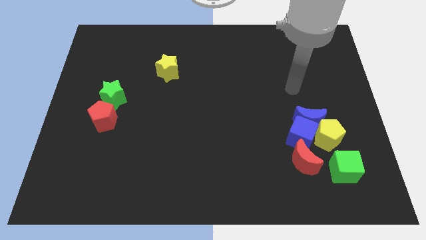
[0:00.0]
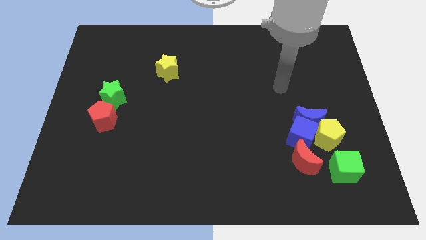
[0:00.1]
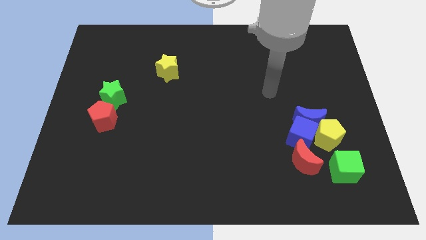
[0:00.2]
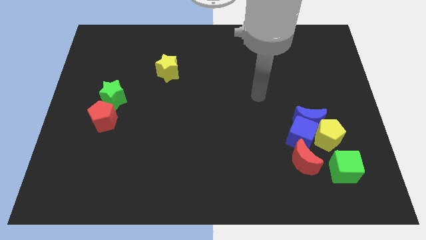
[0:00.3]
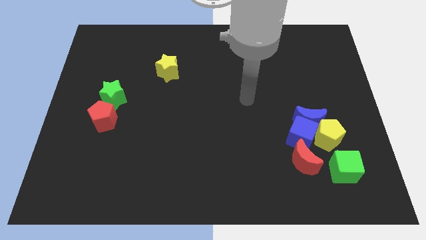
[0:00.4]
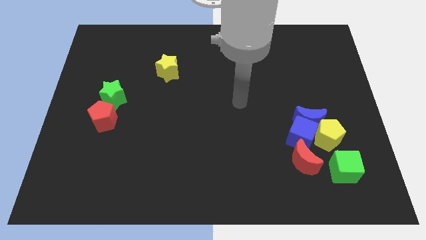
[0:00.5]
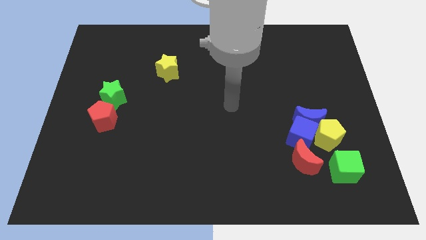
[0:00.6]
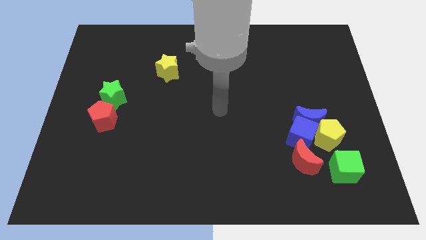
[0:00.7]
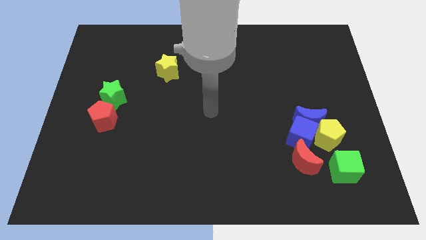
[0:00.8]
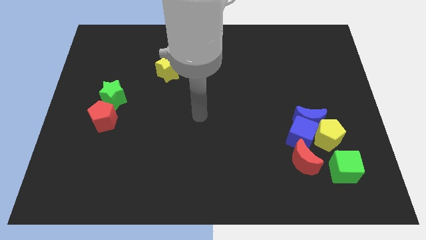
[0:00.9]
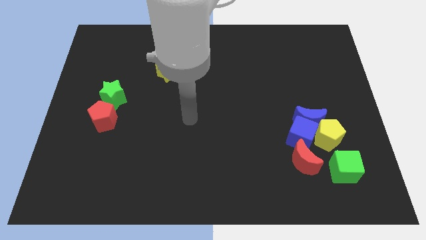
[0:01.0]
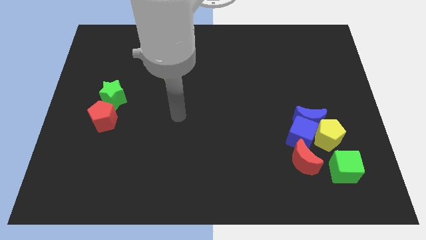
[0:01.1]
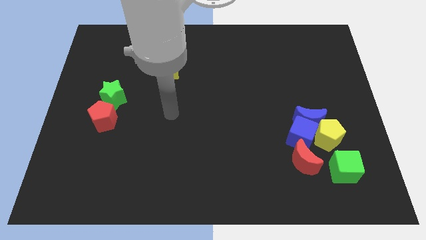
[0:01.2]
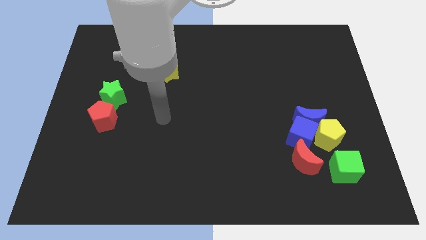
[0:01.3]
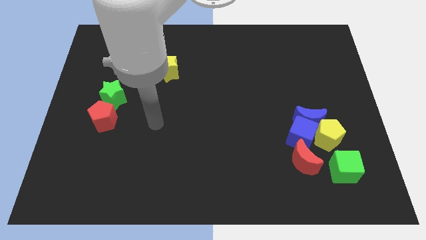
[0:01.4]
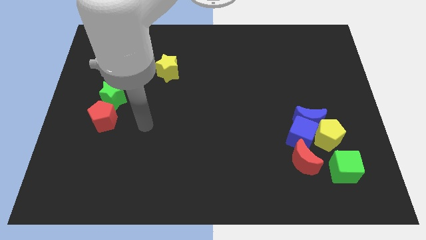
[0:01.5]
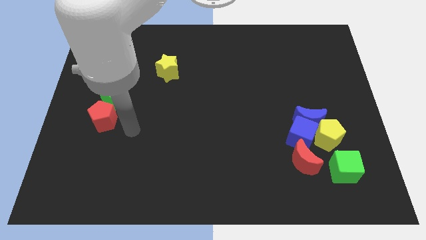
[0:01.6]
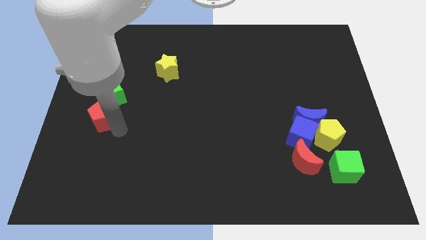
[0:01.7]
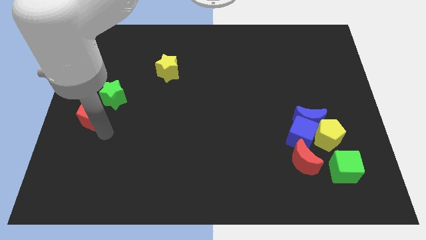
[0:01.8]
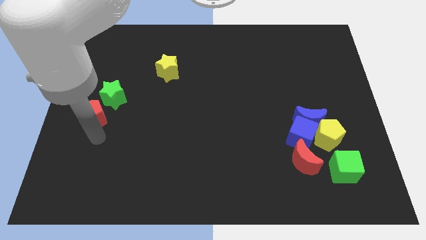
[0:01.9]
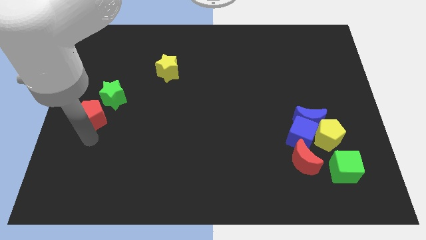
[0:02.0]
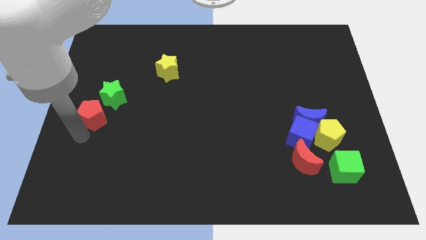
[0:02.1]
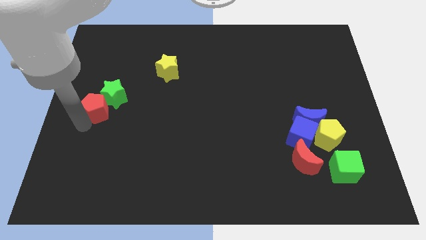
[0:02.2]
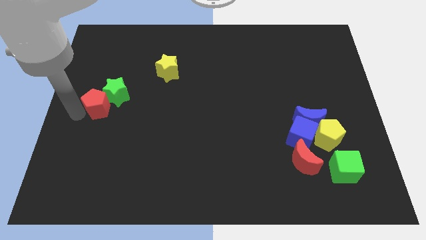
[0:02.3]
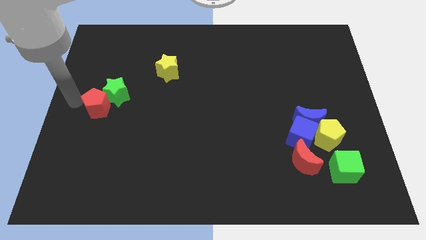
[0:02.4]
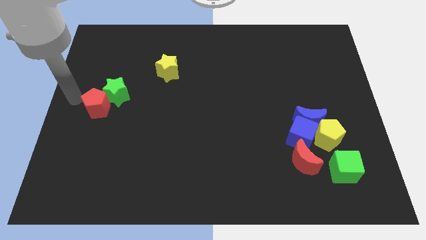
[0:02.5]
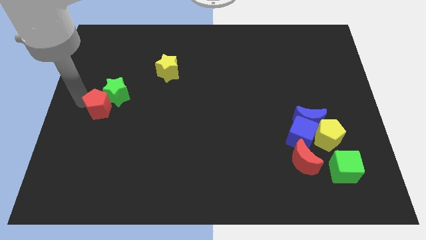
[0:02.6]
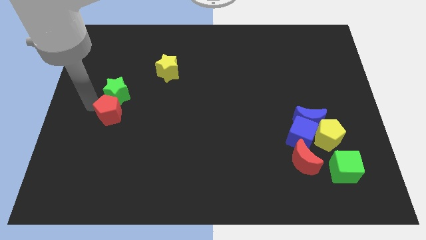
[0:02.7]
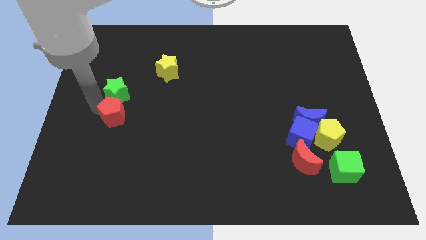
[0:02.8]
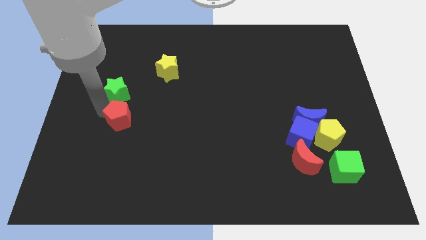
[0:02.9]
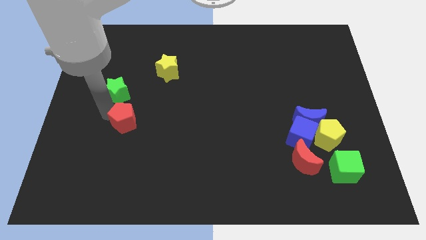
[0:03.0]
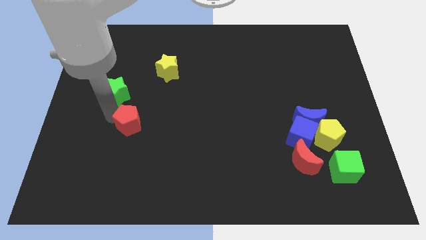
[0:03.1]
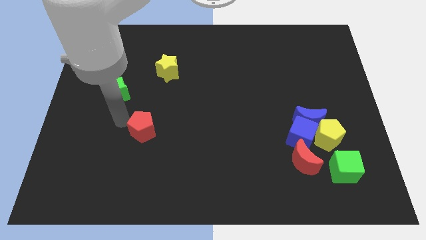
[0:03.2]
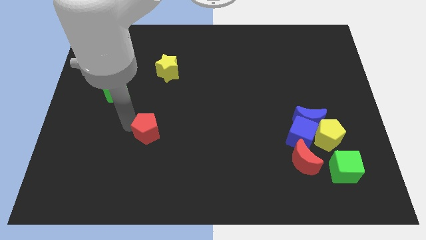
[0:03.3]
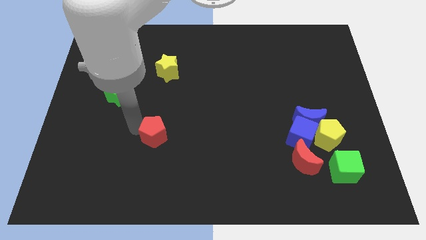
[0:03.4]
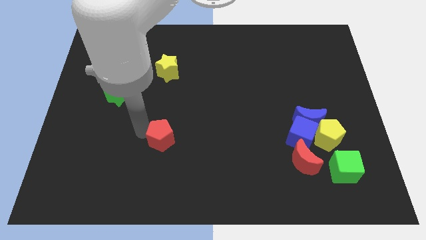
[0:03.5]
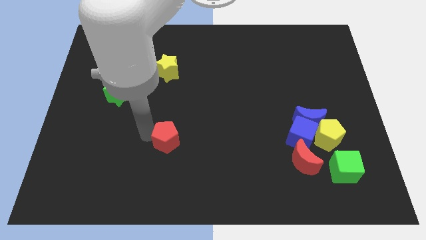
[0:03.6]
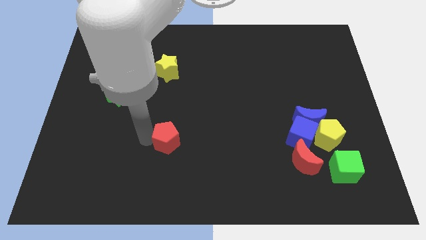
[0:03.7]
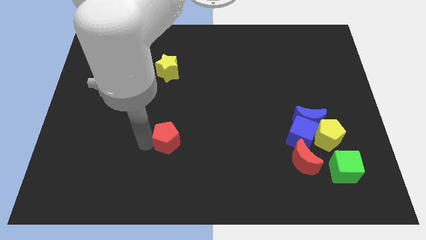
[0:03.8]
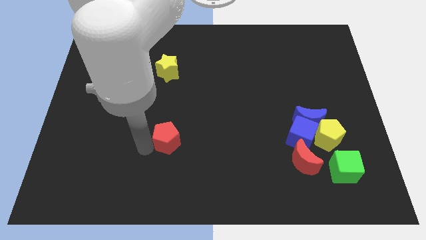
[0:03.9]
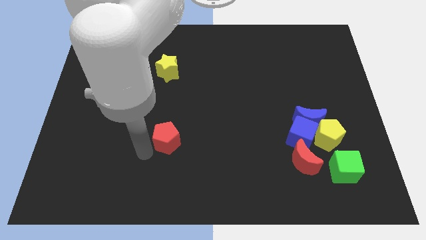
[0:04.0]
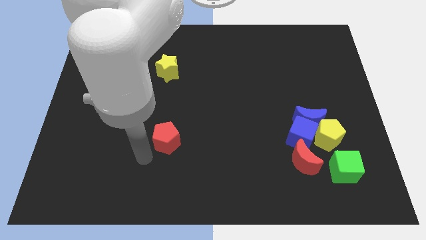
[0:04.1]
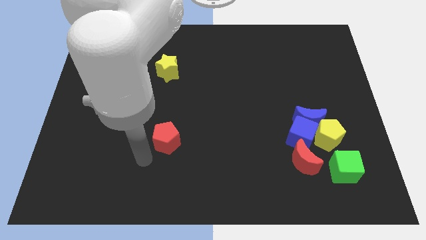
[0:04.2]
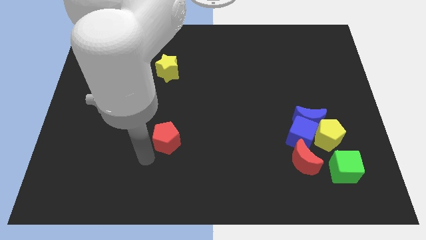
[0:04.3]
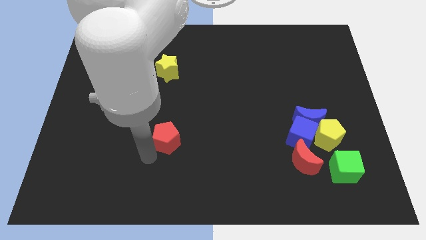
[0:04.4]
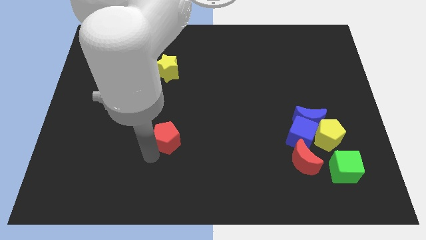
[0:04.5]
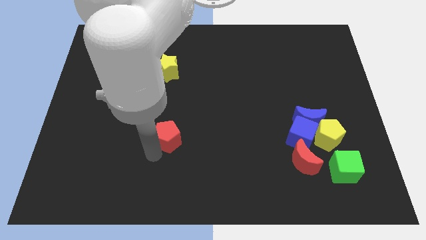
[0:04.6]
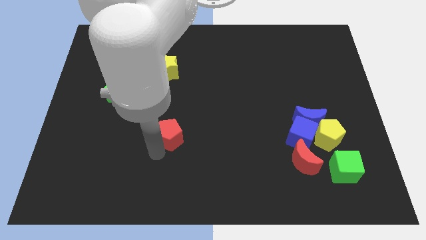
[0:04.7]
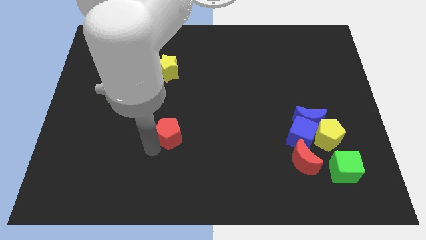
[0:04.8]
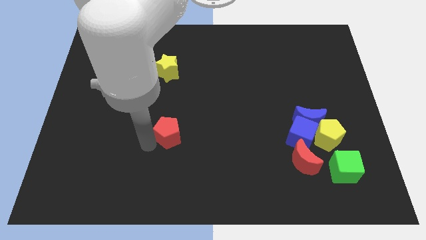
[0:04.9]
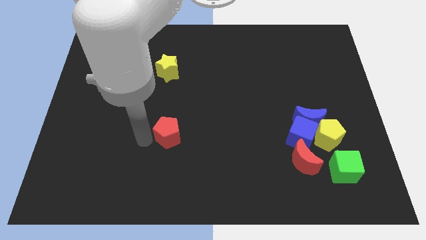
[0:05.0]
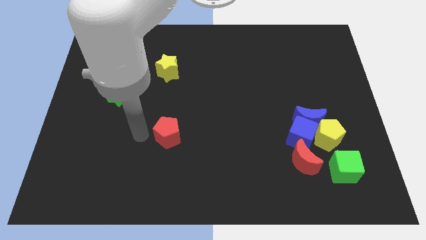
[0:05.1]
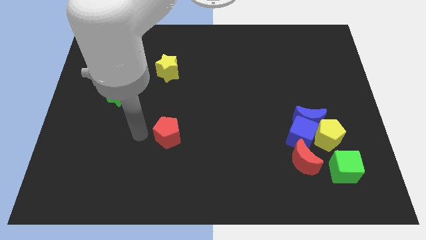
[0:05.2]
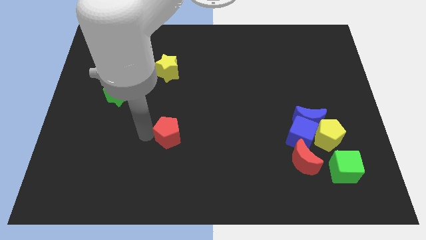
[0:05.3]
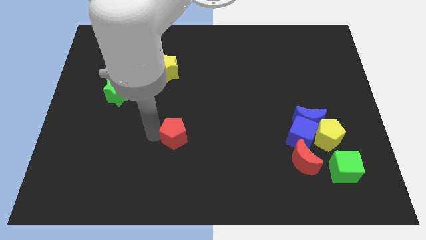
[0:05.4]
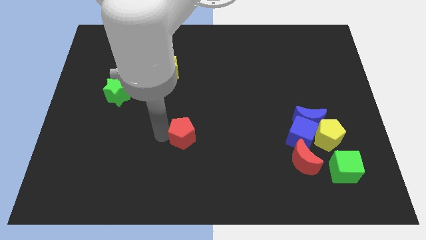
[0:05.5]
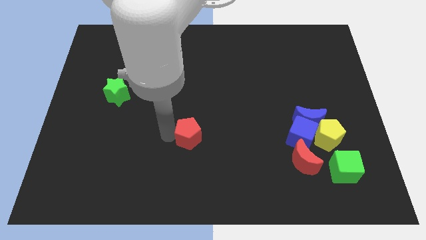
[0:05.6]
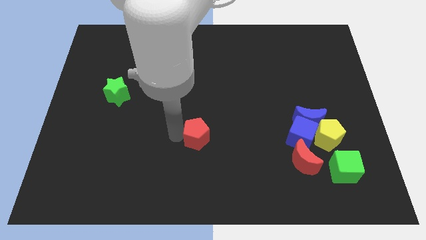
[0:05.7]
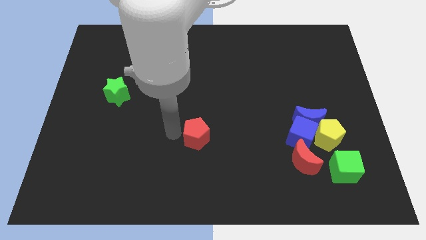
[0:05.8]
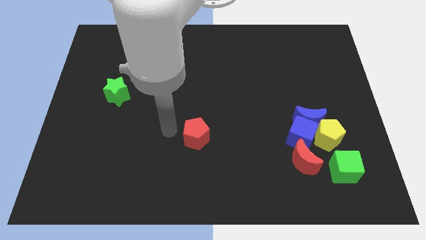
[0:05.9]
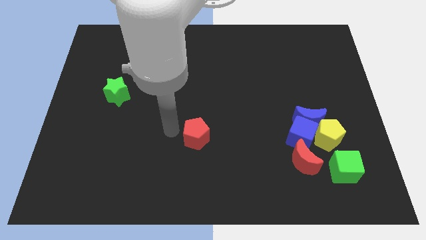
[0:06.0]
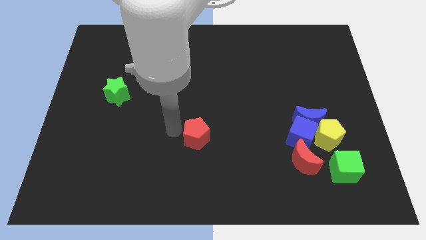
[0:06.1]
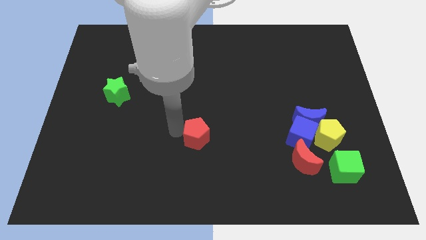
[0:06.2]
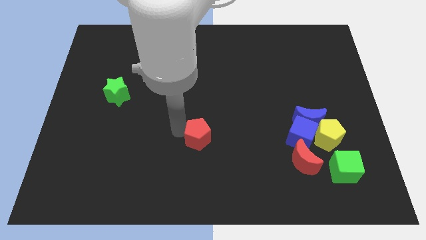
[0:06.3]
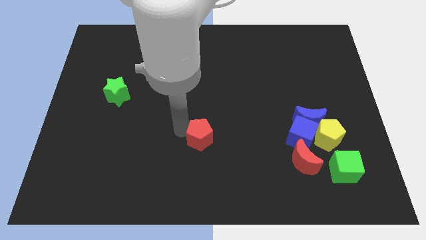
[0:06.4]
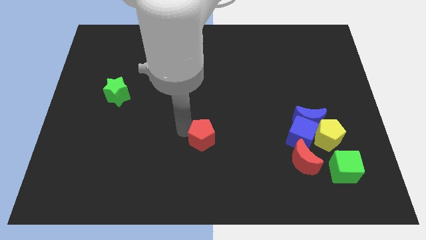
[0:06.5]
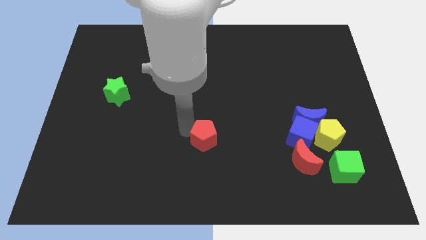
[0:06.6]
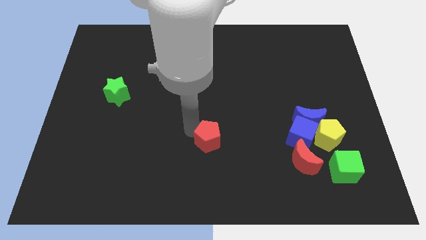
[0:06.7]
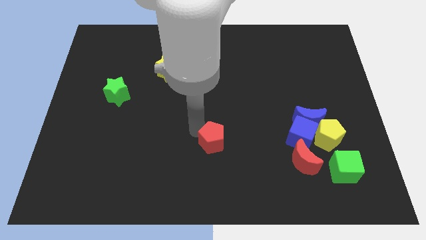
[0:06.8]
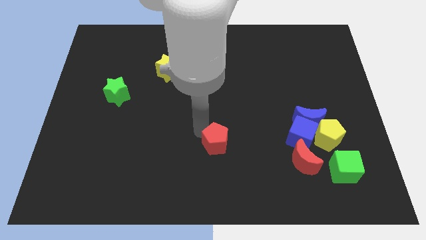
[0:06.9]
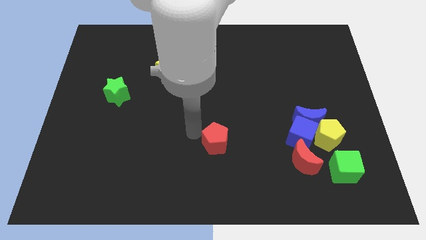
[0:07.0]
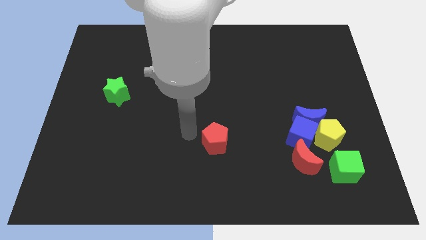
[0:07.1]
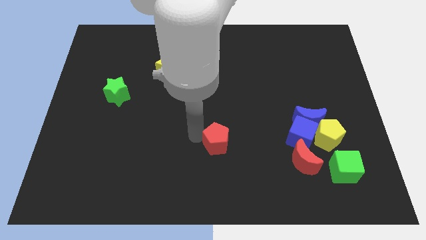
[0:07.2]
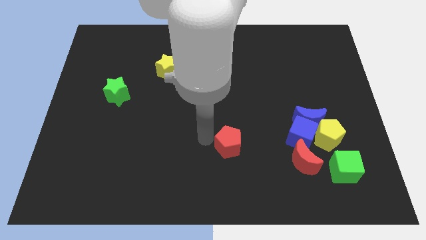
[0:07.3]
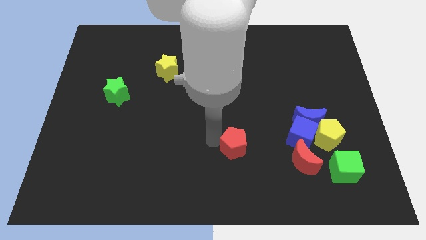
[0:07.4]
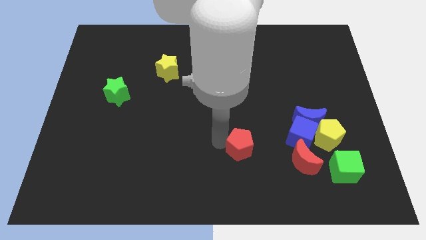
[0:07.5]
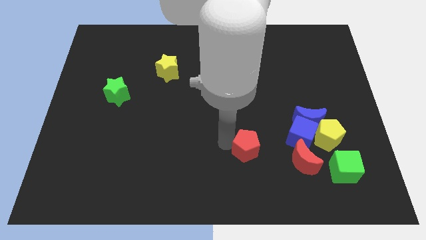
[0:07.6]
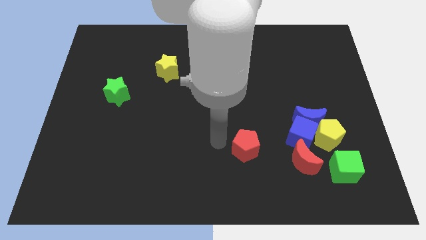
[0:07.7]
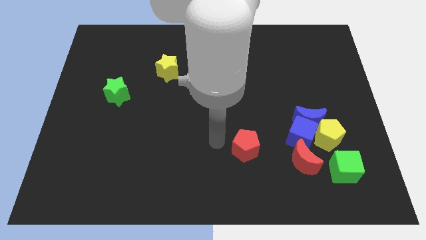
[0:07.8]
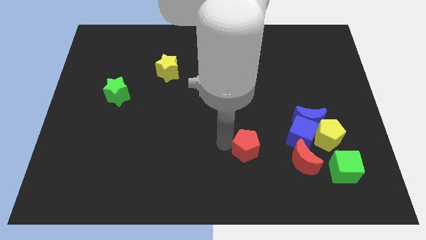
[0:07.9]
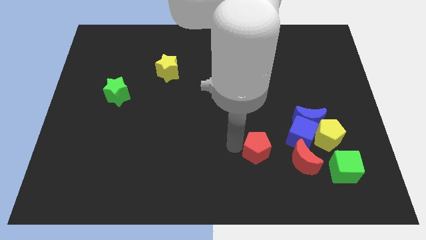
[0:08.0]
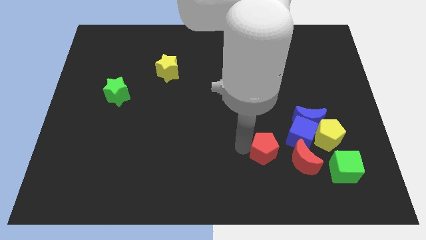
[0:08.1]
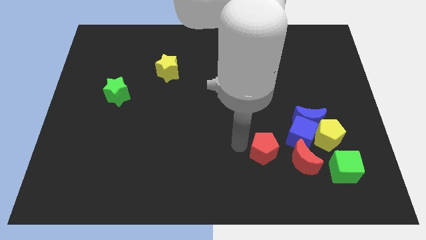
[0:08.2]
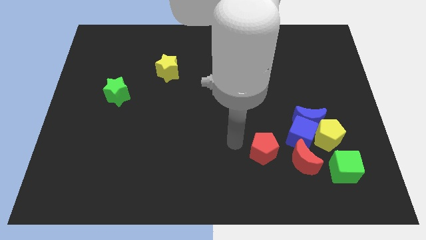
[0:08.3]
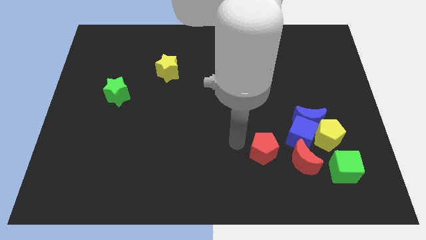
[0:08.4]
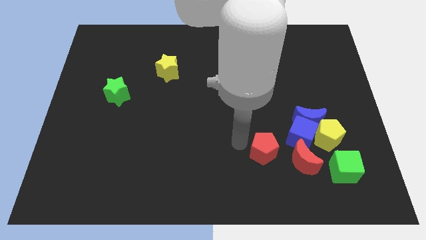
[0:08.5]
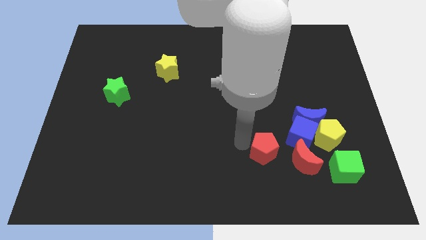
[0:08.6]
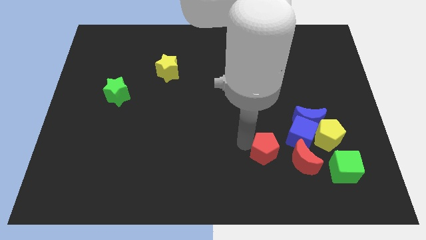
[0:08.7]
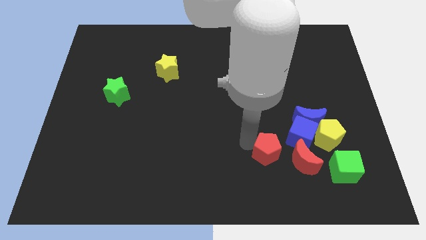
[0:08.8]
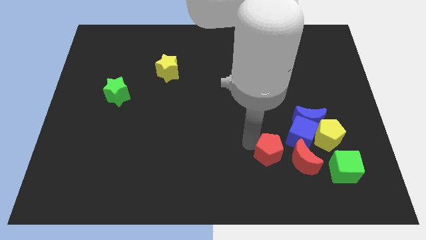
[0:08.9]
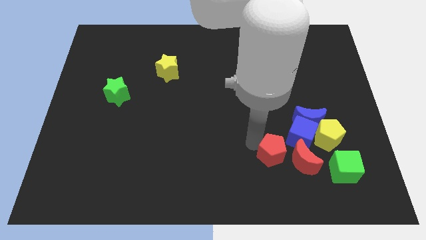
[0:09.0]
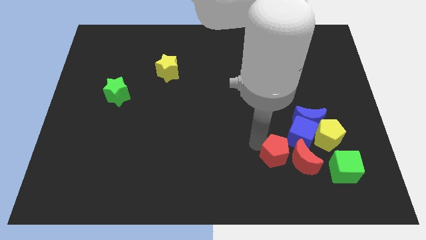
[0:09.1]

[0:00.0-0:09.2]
move the red pentagon to the red moon
